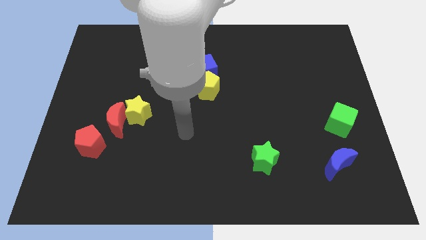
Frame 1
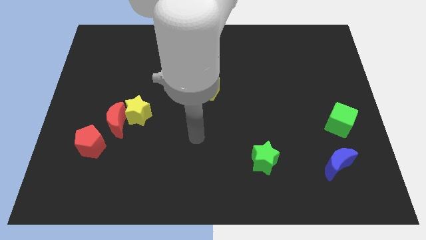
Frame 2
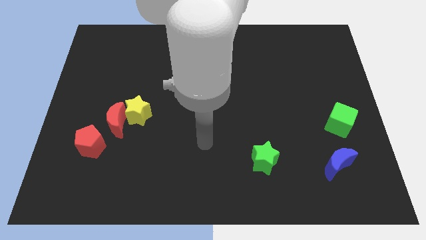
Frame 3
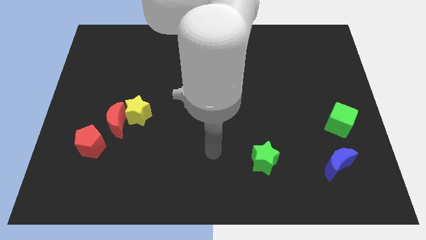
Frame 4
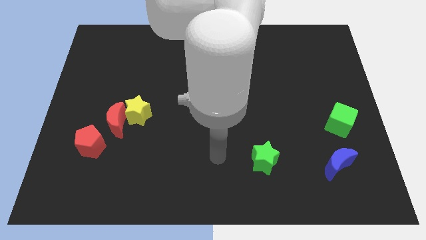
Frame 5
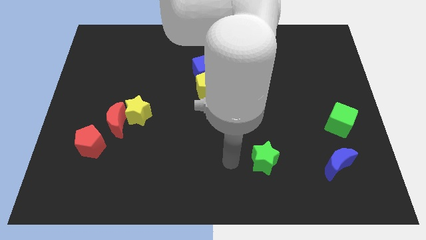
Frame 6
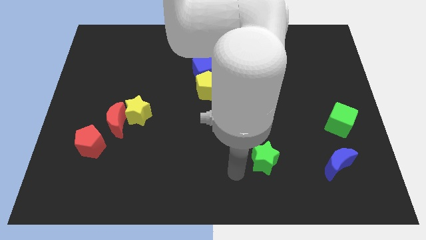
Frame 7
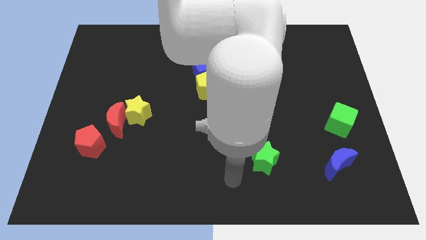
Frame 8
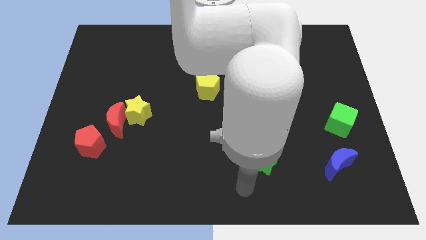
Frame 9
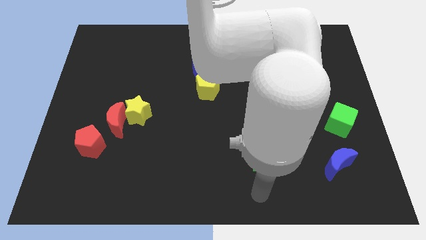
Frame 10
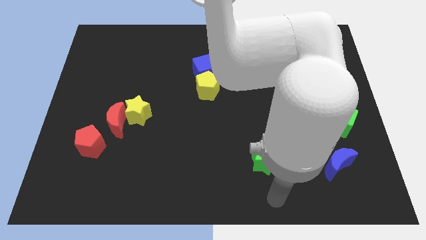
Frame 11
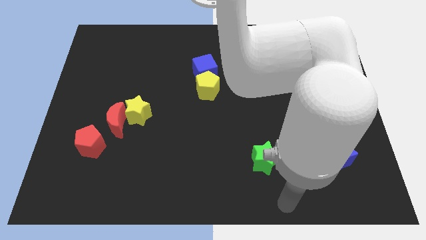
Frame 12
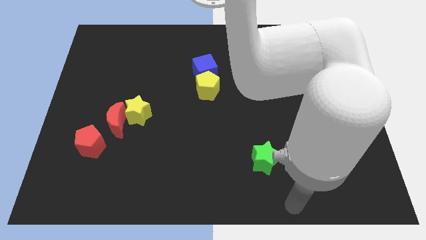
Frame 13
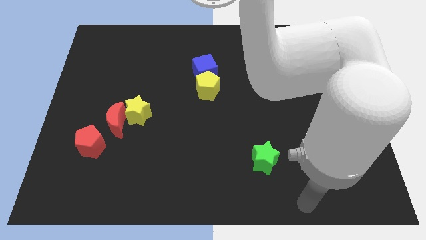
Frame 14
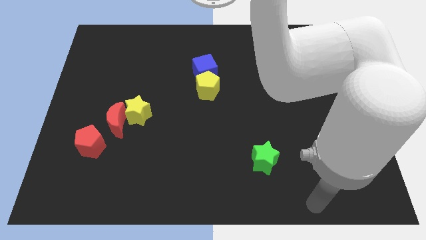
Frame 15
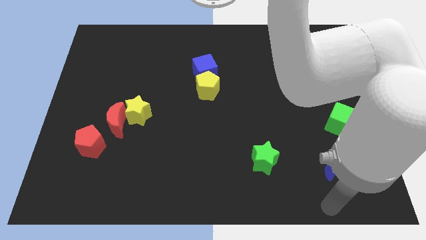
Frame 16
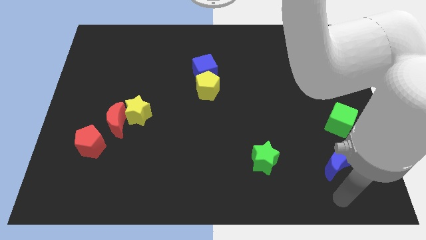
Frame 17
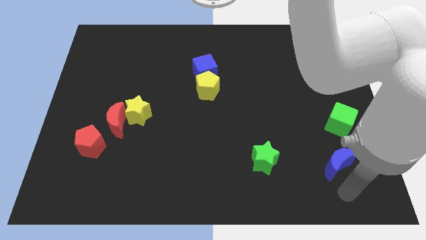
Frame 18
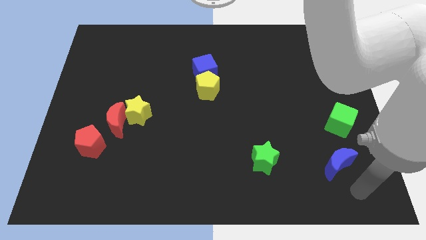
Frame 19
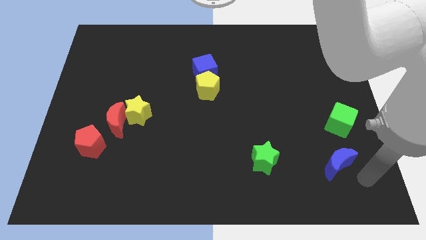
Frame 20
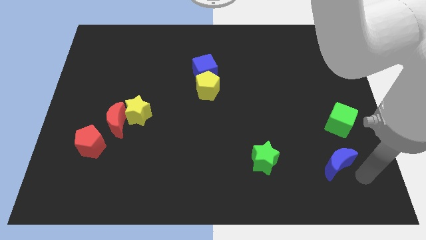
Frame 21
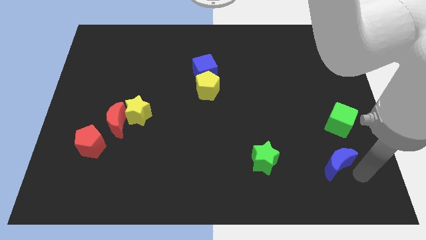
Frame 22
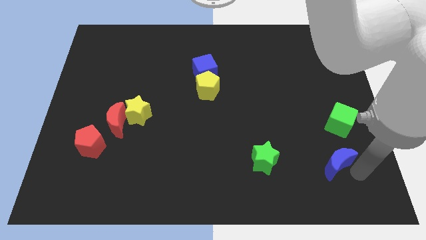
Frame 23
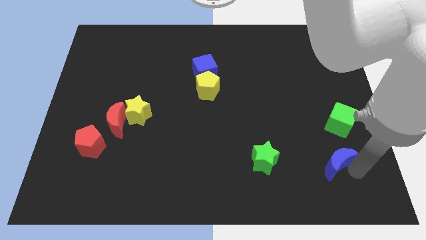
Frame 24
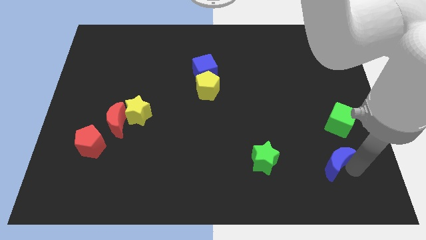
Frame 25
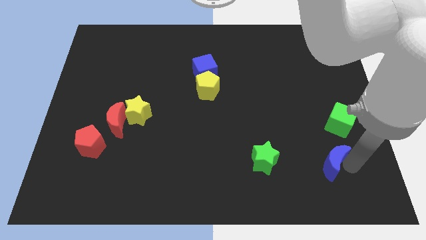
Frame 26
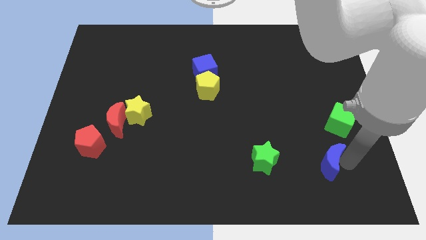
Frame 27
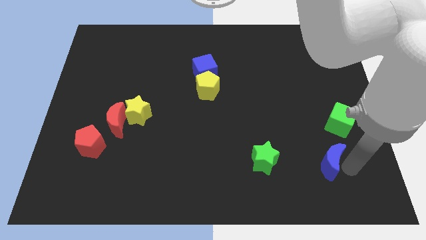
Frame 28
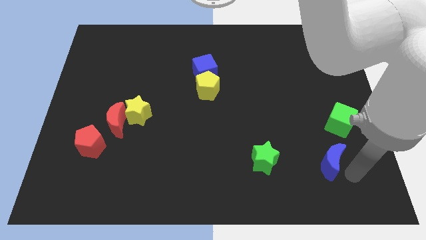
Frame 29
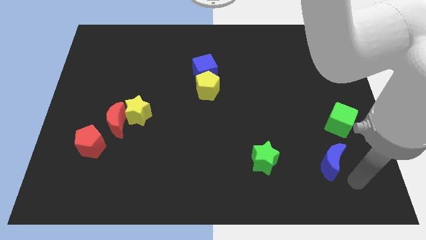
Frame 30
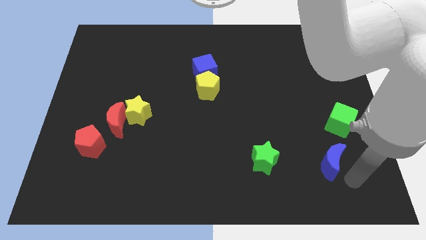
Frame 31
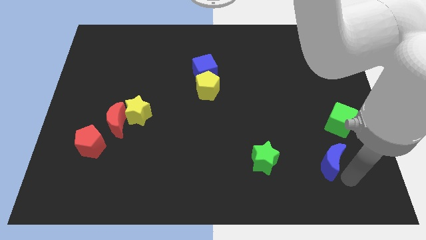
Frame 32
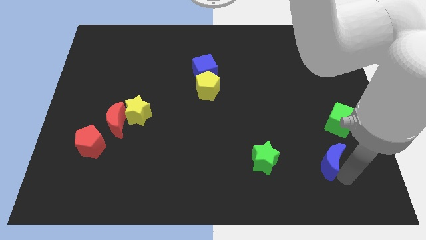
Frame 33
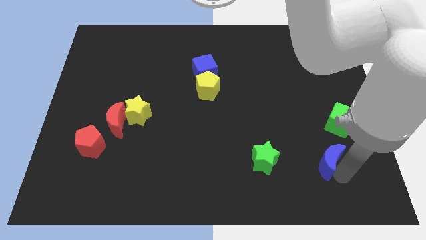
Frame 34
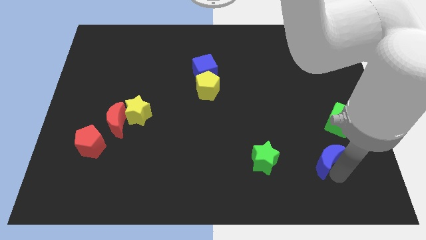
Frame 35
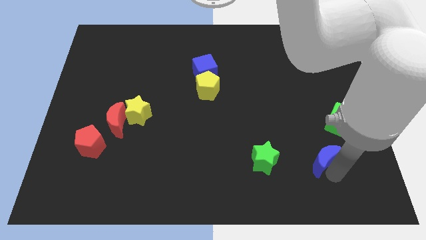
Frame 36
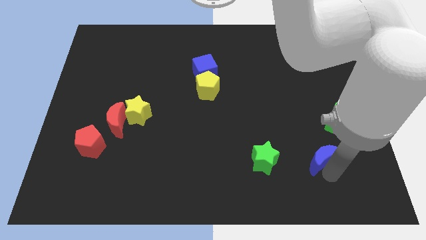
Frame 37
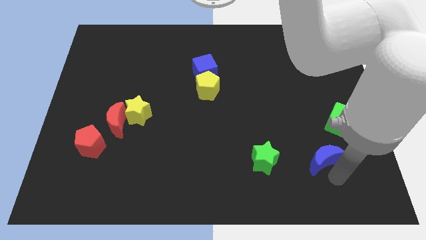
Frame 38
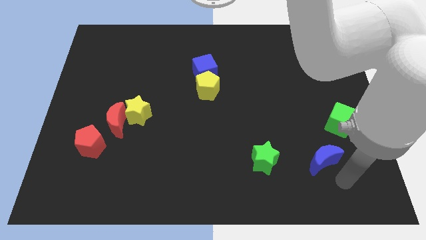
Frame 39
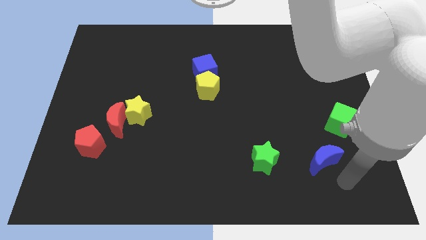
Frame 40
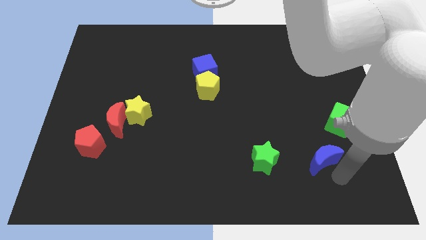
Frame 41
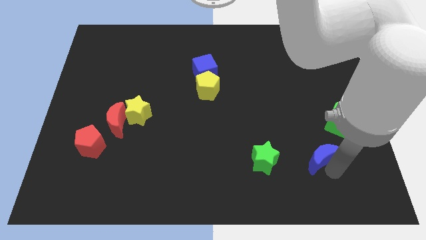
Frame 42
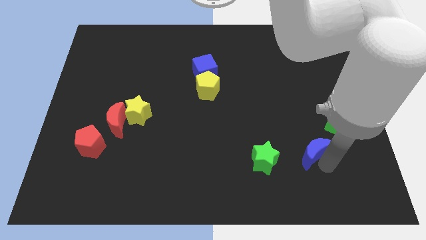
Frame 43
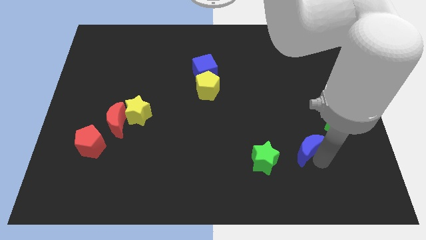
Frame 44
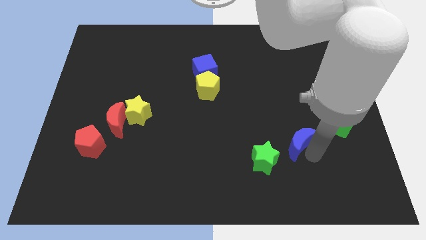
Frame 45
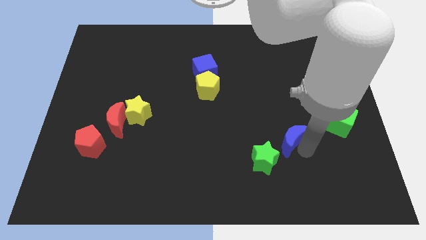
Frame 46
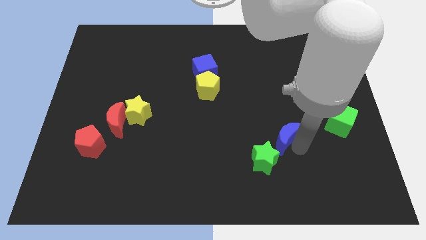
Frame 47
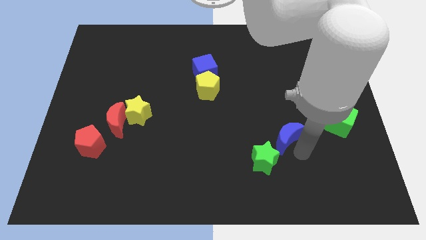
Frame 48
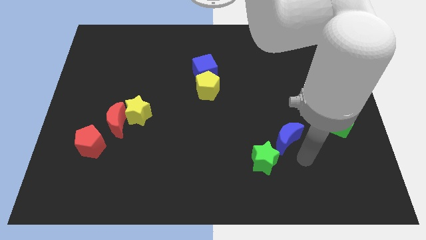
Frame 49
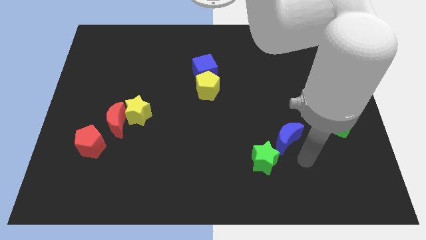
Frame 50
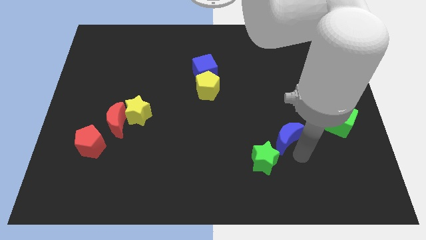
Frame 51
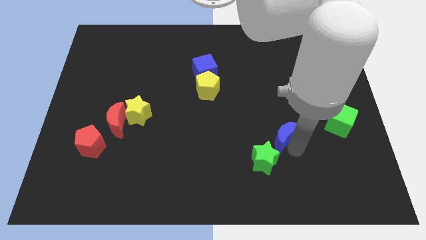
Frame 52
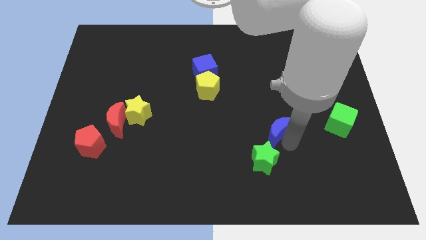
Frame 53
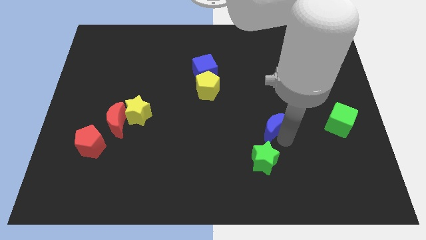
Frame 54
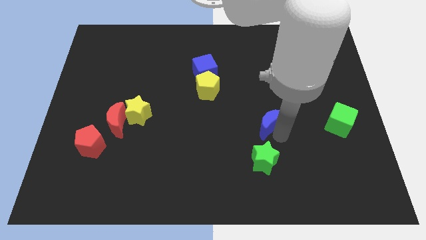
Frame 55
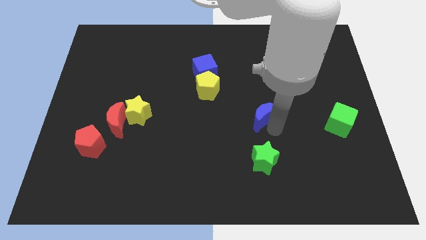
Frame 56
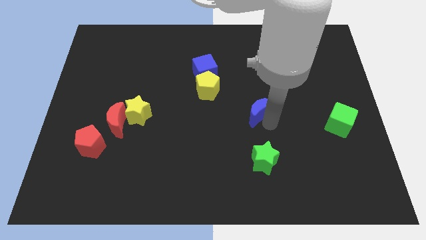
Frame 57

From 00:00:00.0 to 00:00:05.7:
move the blue moon upwards and then left

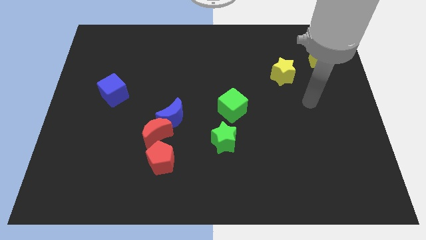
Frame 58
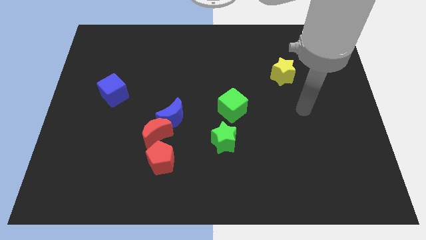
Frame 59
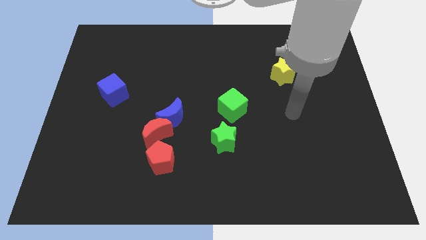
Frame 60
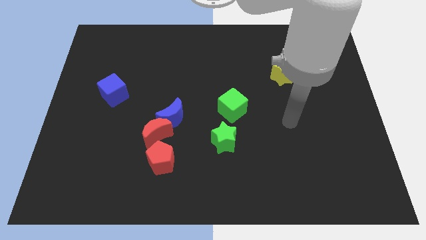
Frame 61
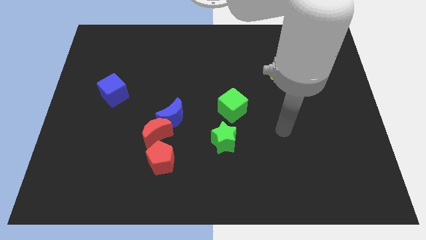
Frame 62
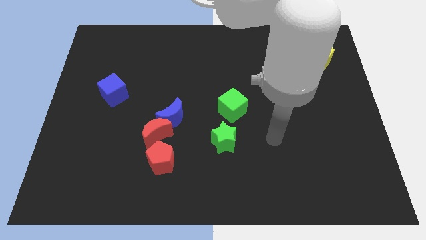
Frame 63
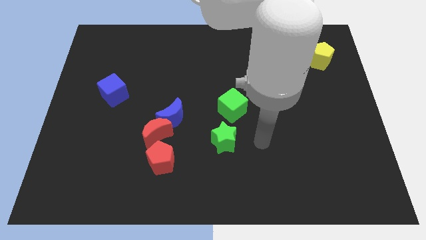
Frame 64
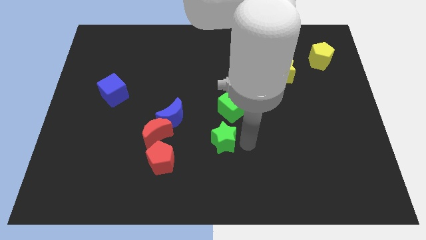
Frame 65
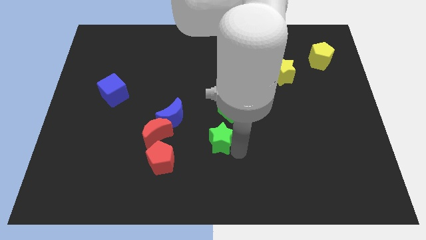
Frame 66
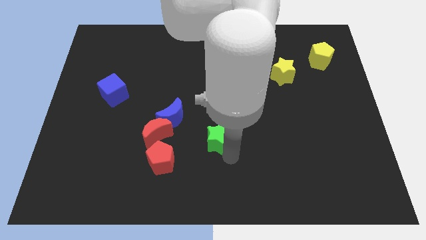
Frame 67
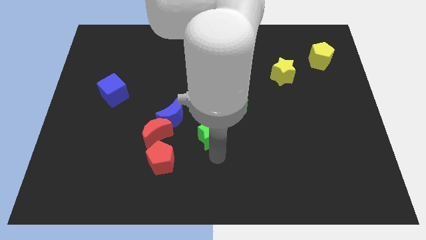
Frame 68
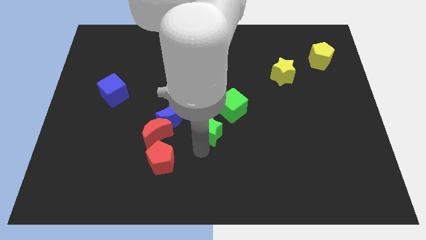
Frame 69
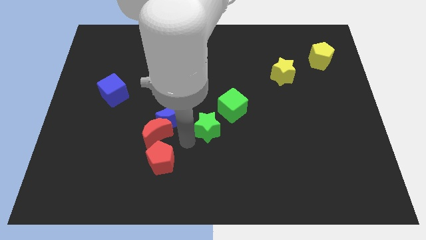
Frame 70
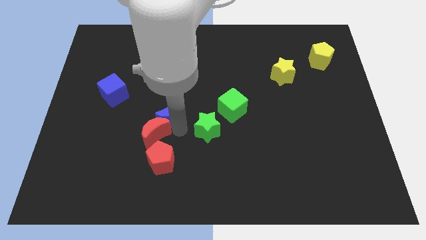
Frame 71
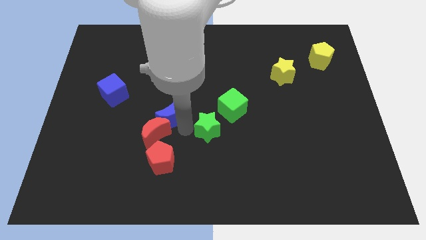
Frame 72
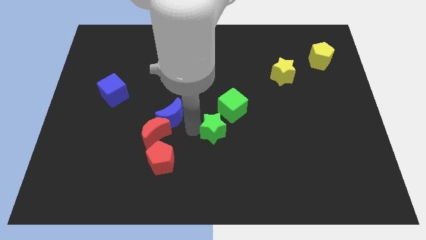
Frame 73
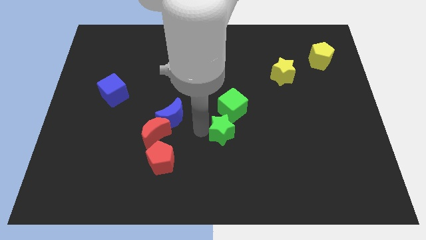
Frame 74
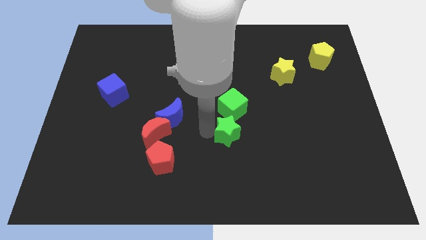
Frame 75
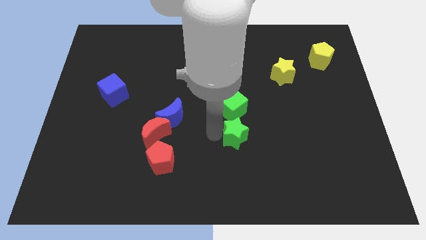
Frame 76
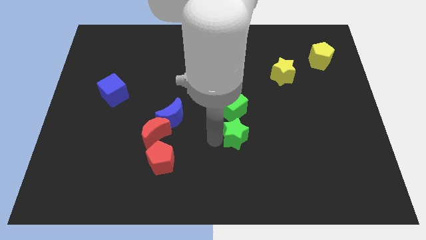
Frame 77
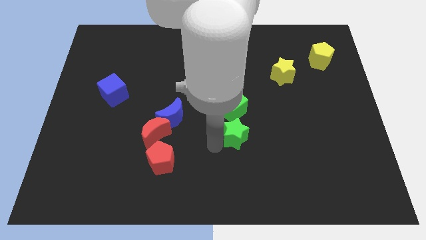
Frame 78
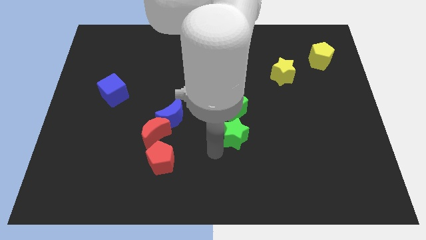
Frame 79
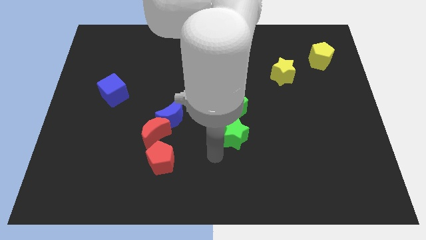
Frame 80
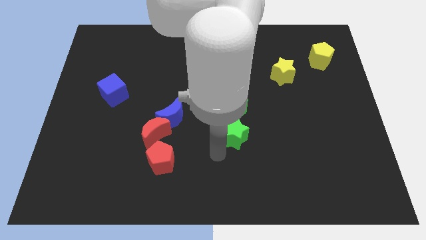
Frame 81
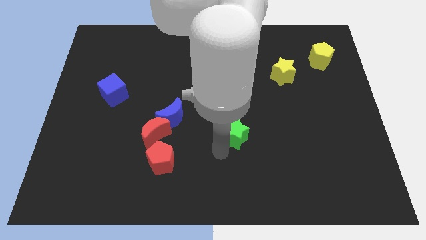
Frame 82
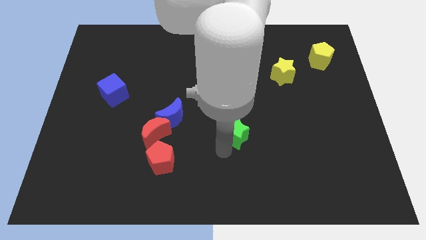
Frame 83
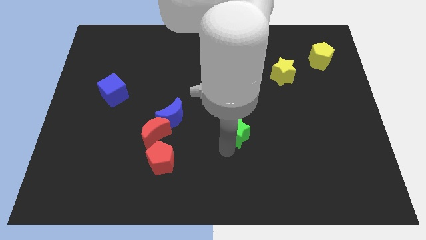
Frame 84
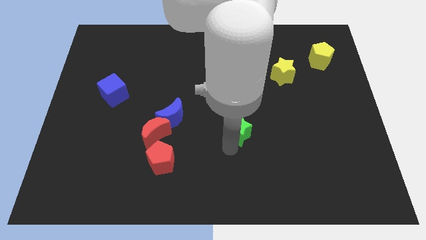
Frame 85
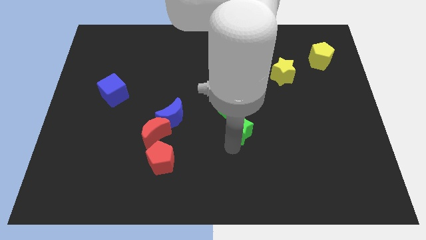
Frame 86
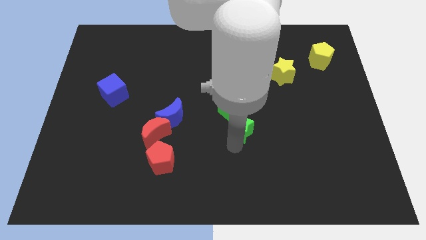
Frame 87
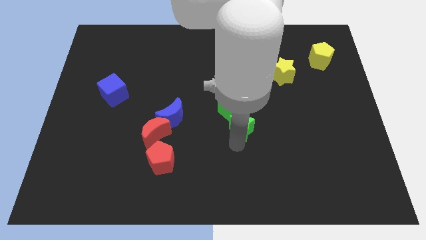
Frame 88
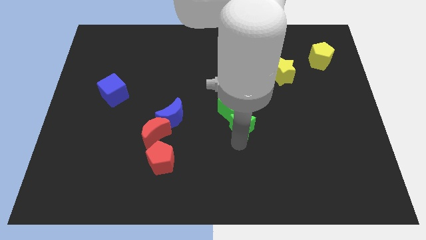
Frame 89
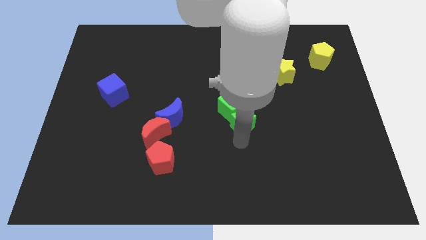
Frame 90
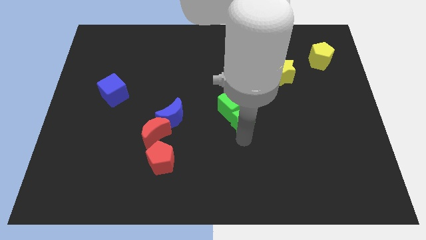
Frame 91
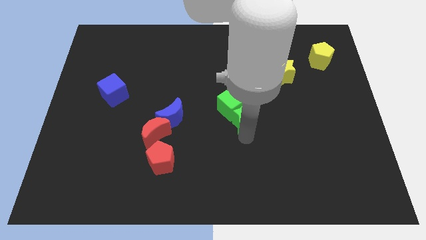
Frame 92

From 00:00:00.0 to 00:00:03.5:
slightly move the green star up and then right
